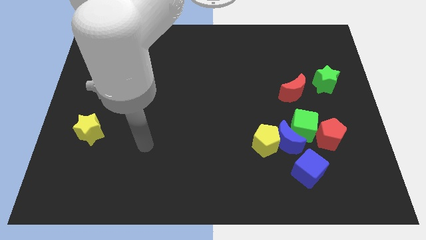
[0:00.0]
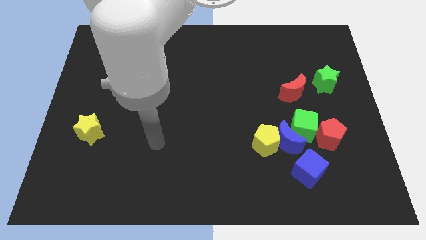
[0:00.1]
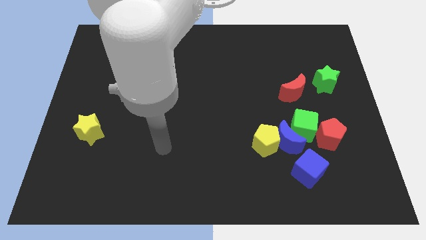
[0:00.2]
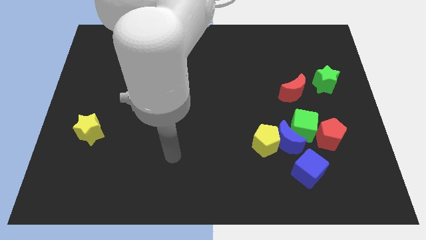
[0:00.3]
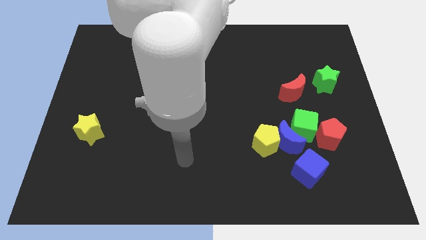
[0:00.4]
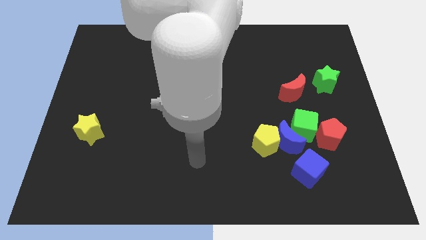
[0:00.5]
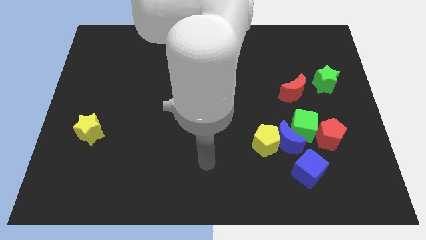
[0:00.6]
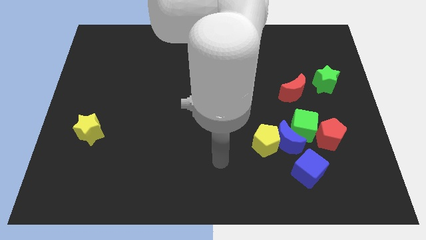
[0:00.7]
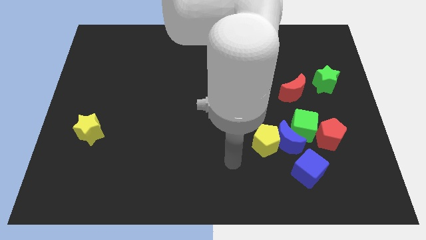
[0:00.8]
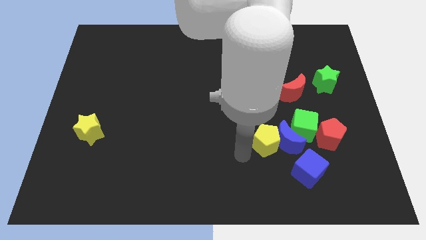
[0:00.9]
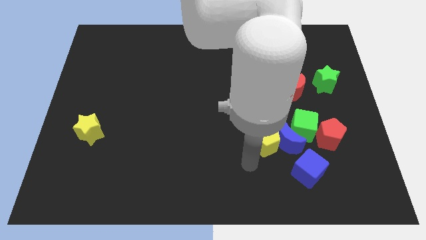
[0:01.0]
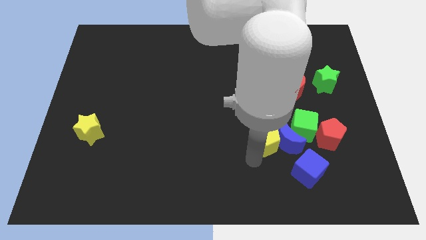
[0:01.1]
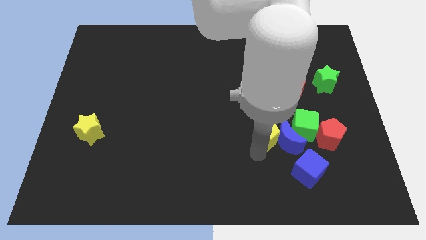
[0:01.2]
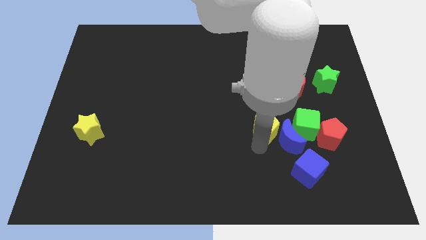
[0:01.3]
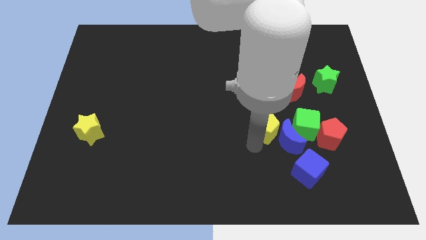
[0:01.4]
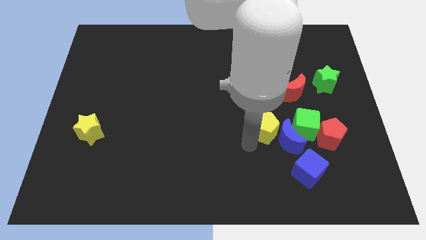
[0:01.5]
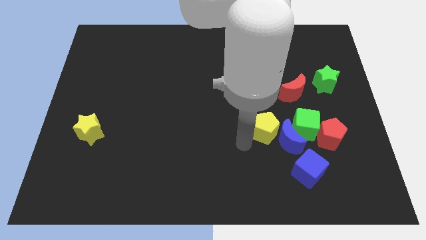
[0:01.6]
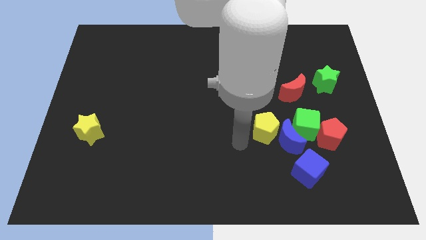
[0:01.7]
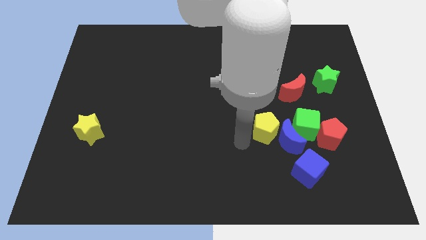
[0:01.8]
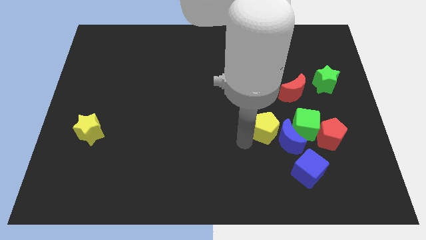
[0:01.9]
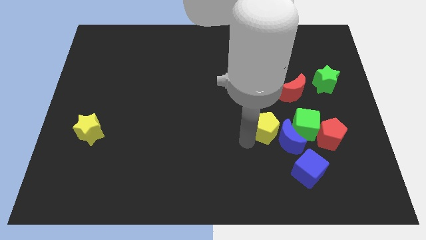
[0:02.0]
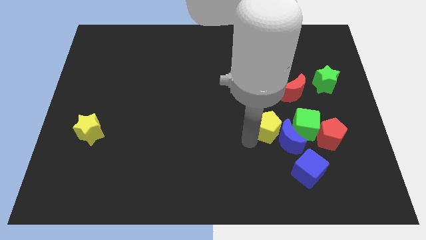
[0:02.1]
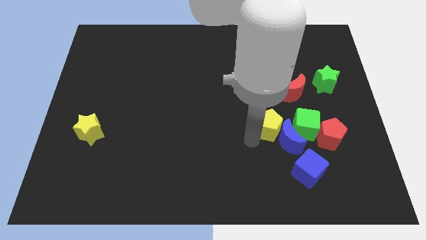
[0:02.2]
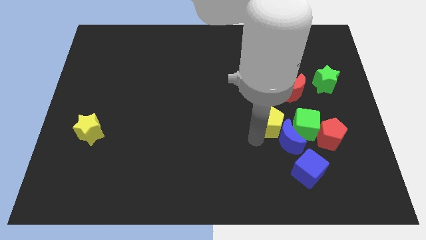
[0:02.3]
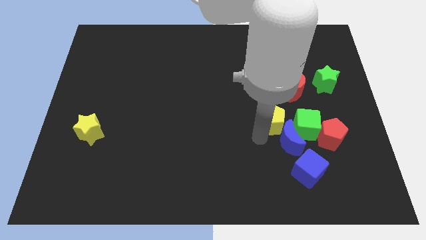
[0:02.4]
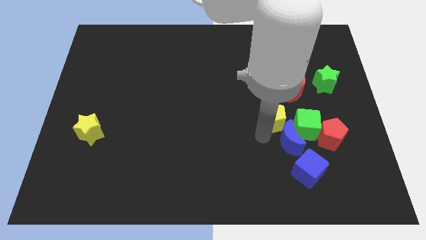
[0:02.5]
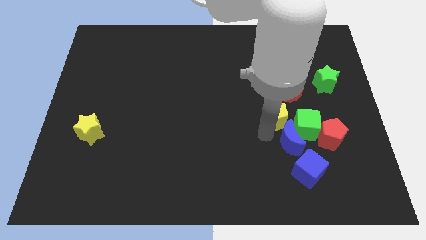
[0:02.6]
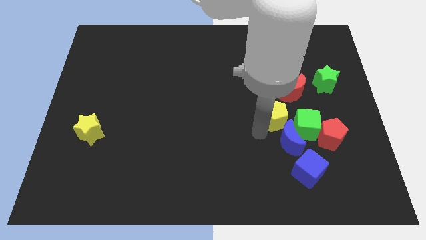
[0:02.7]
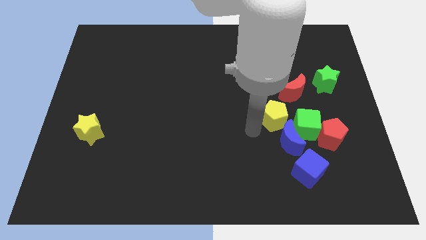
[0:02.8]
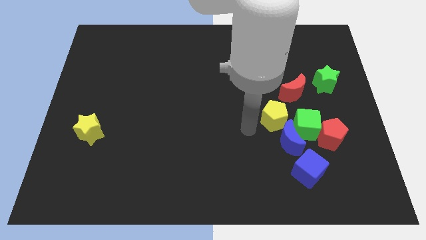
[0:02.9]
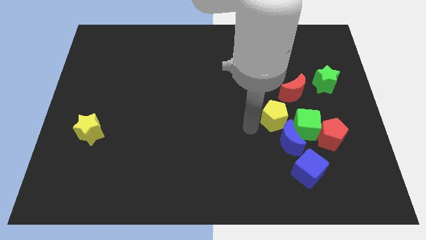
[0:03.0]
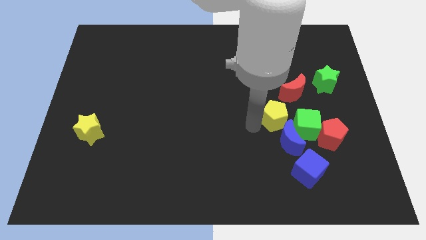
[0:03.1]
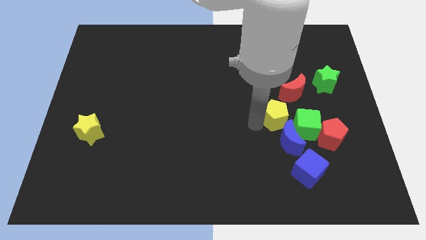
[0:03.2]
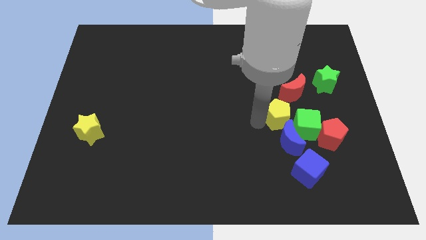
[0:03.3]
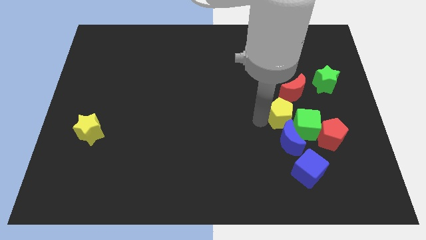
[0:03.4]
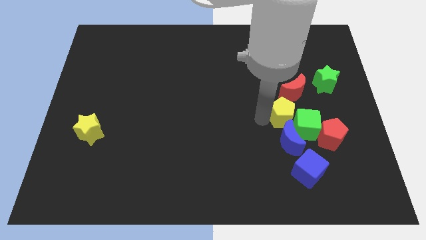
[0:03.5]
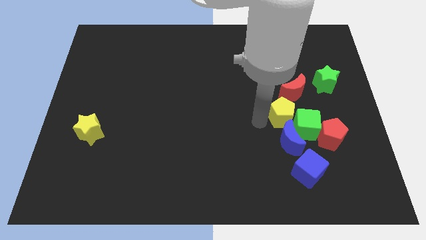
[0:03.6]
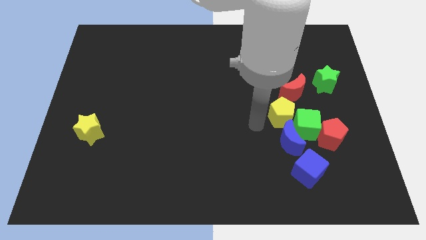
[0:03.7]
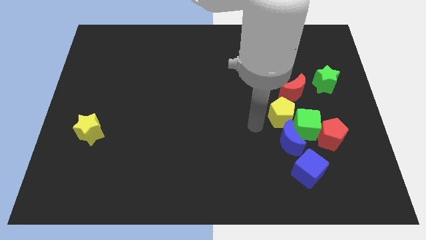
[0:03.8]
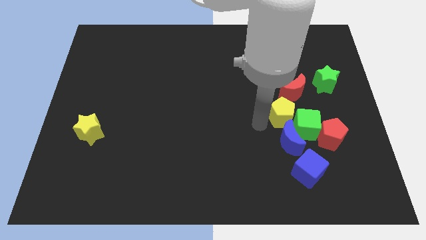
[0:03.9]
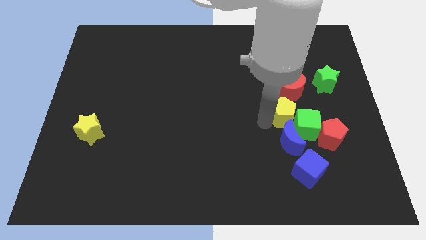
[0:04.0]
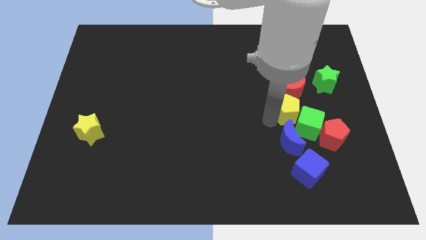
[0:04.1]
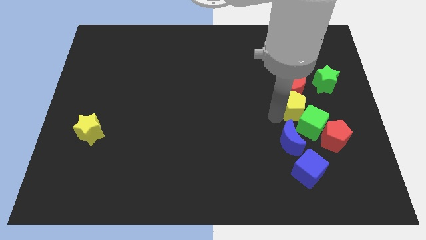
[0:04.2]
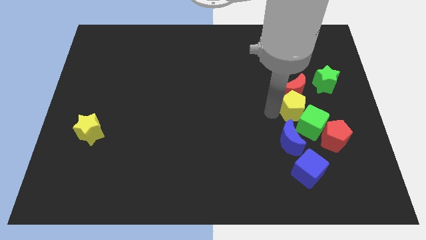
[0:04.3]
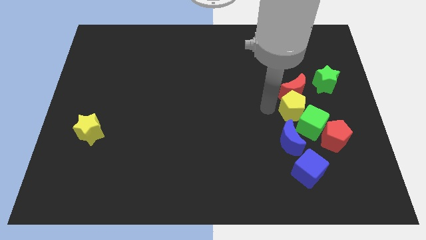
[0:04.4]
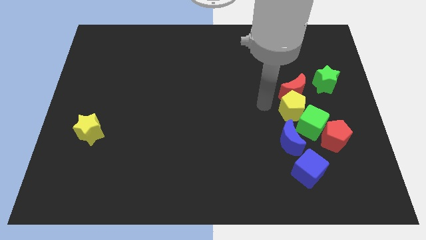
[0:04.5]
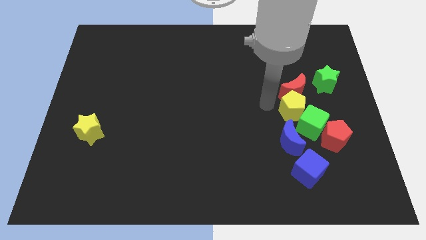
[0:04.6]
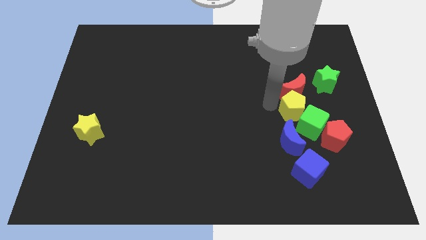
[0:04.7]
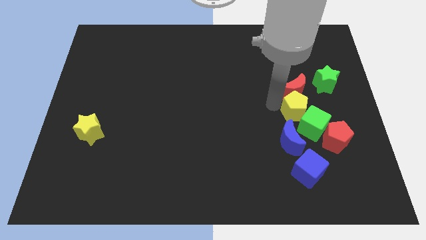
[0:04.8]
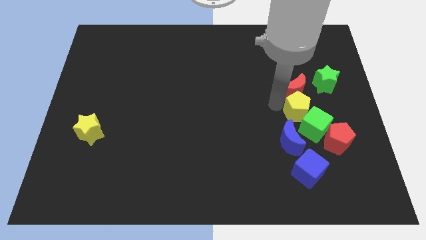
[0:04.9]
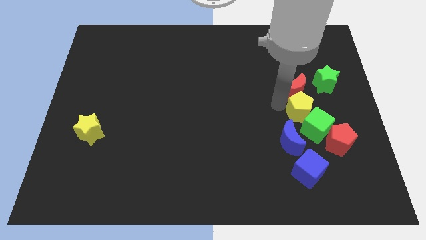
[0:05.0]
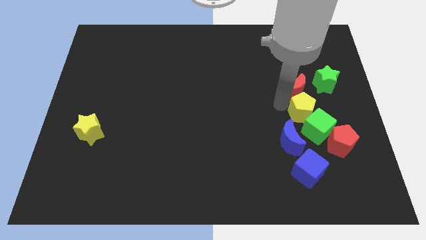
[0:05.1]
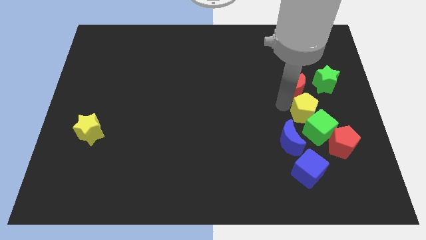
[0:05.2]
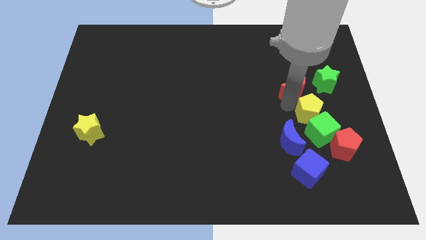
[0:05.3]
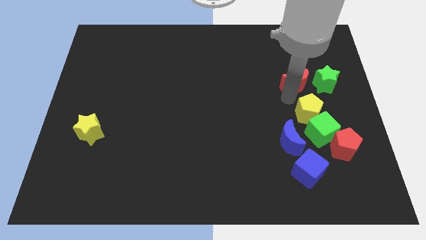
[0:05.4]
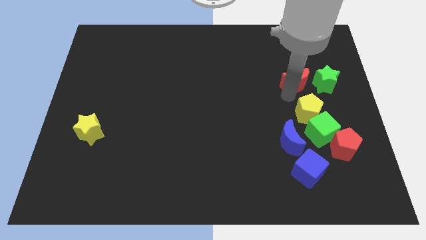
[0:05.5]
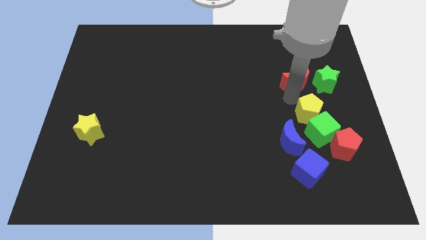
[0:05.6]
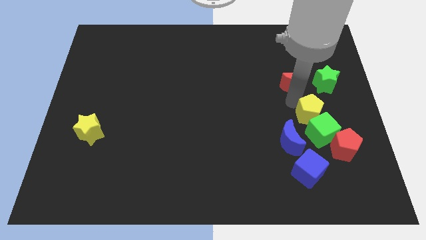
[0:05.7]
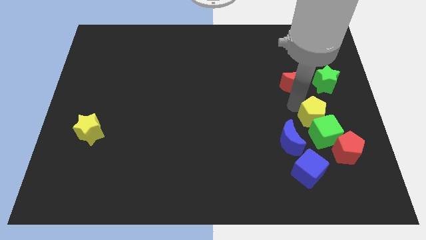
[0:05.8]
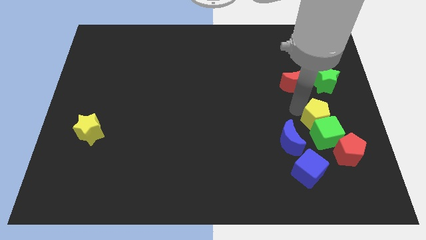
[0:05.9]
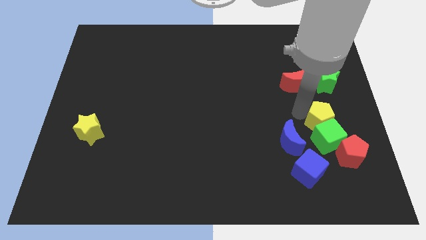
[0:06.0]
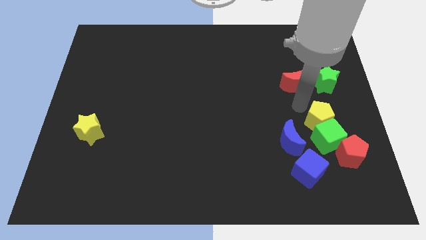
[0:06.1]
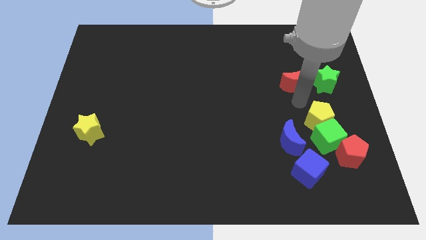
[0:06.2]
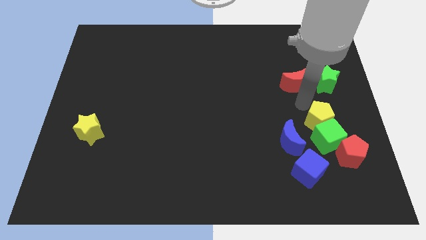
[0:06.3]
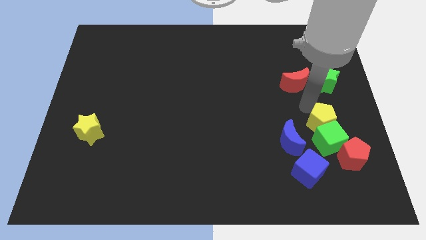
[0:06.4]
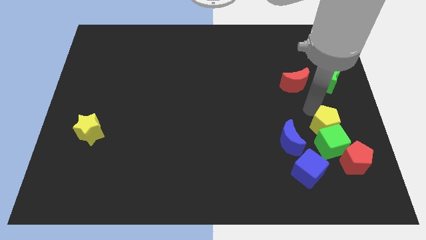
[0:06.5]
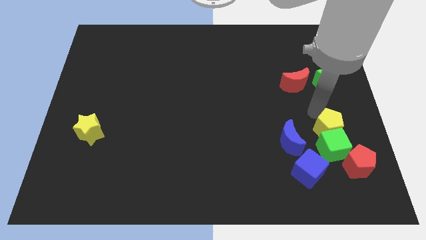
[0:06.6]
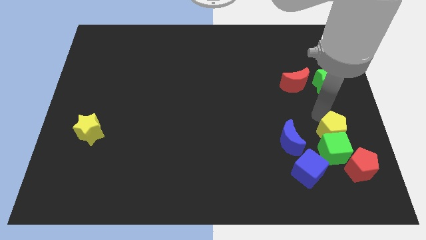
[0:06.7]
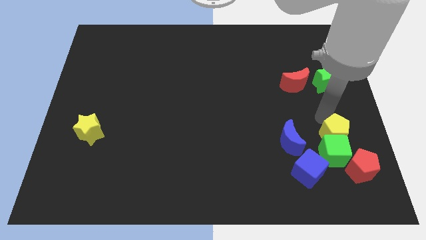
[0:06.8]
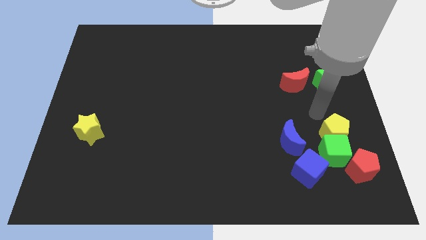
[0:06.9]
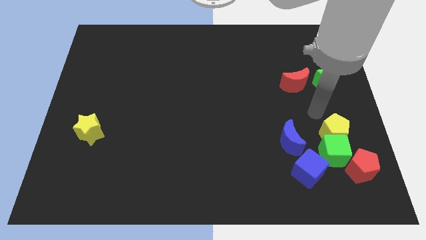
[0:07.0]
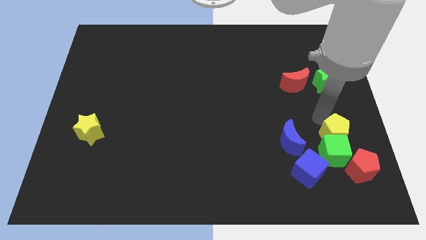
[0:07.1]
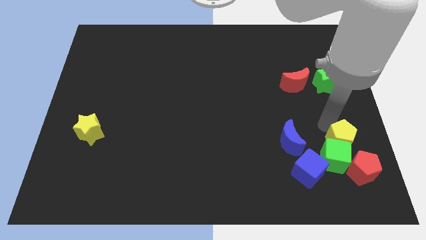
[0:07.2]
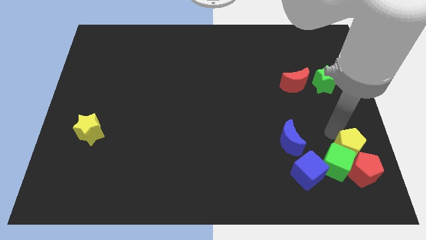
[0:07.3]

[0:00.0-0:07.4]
move the yellow pentagon to the red pentagon

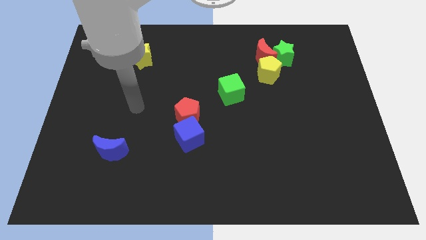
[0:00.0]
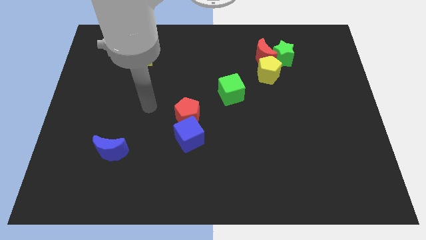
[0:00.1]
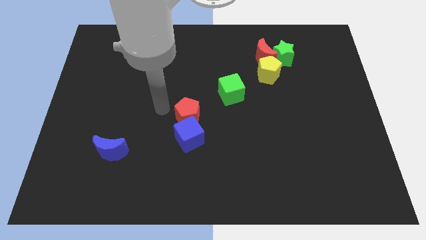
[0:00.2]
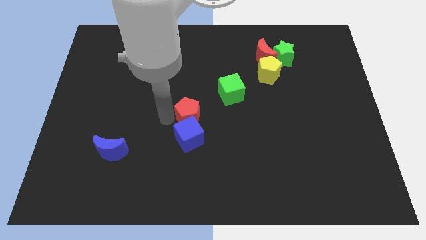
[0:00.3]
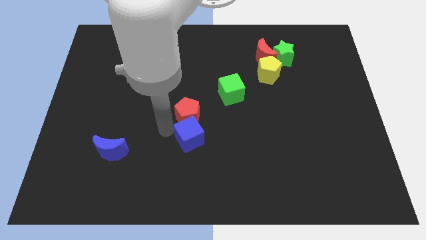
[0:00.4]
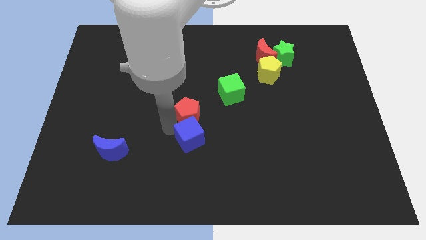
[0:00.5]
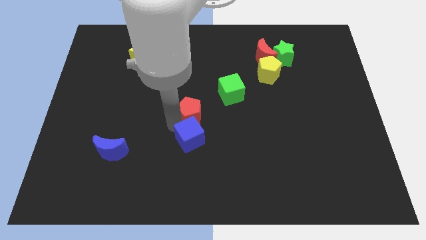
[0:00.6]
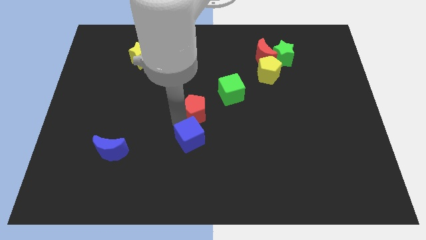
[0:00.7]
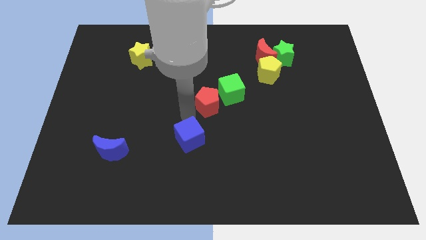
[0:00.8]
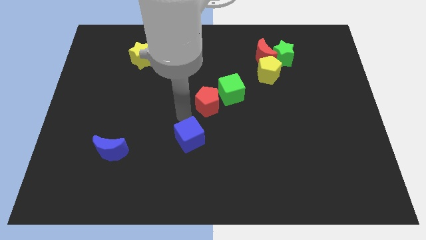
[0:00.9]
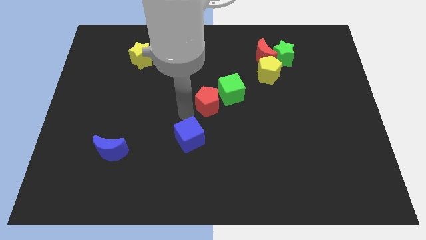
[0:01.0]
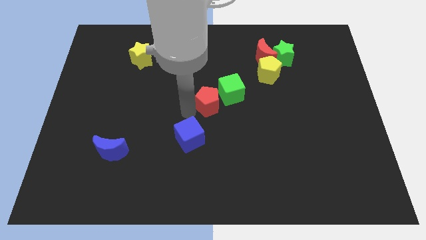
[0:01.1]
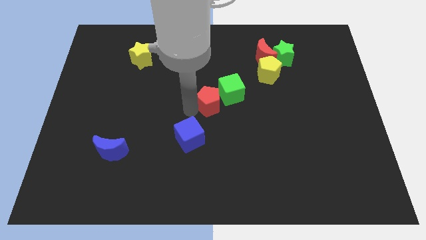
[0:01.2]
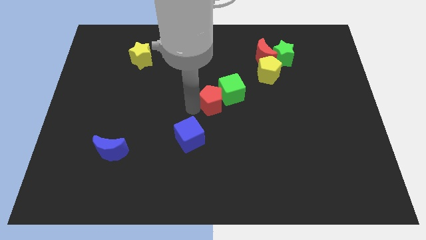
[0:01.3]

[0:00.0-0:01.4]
move the red pentagon next to the green cube
